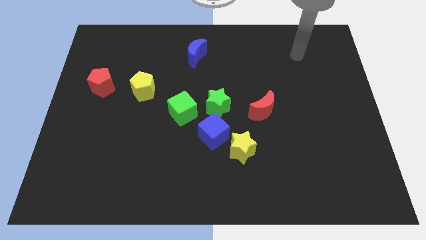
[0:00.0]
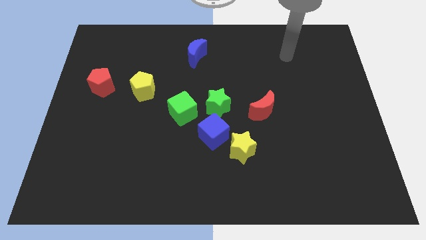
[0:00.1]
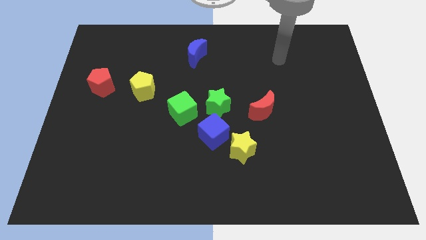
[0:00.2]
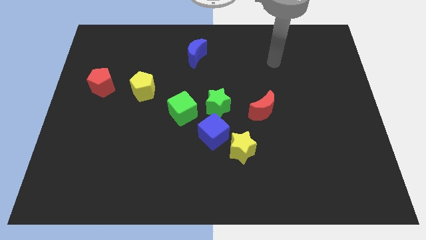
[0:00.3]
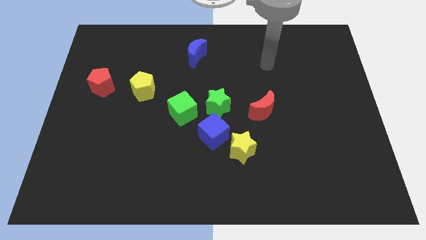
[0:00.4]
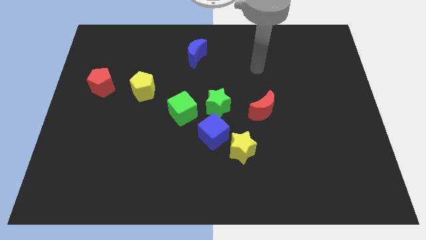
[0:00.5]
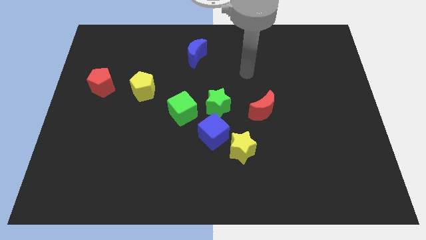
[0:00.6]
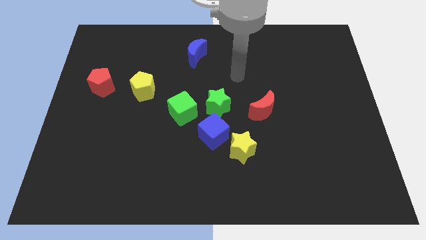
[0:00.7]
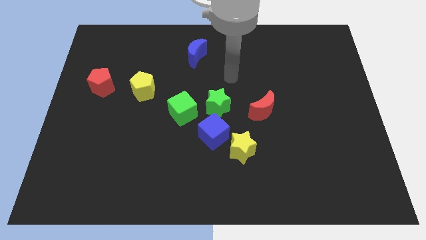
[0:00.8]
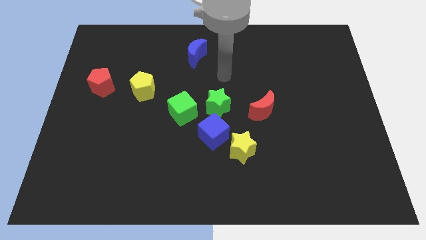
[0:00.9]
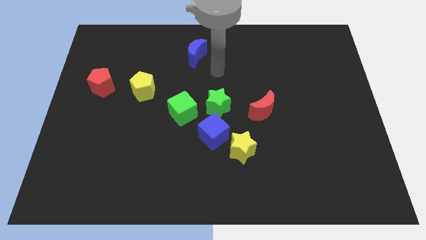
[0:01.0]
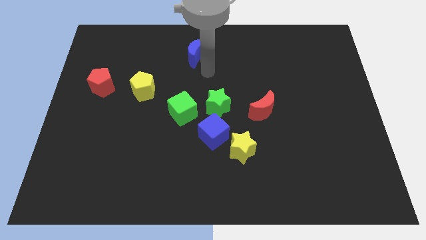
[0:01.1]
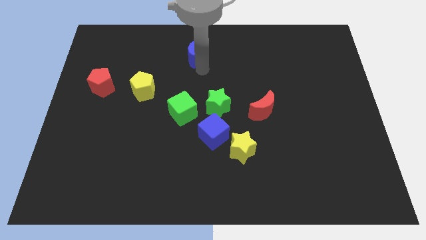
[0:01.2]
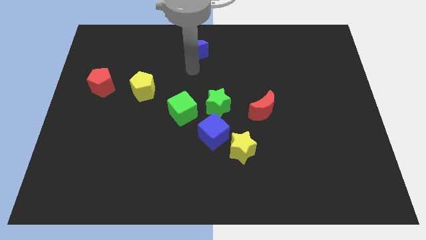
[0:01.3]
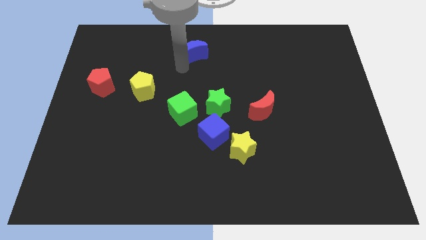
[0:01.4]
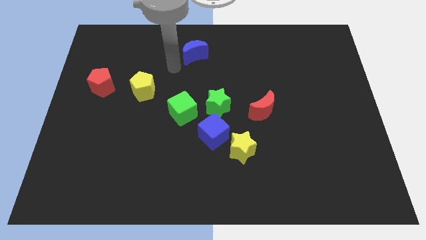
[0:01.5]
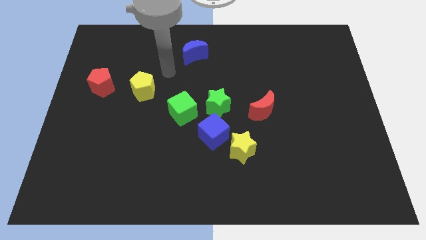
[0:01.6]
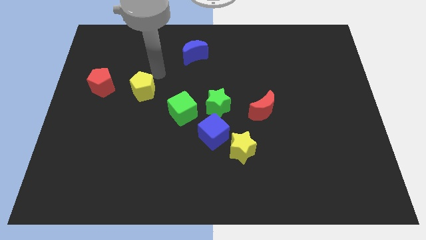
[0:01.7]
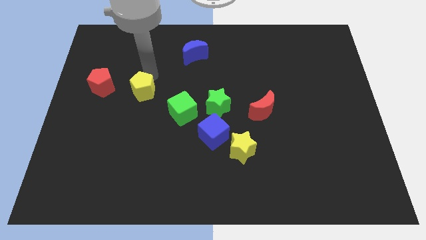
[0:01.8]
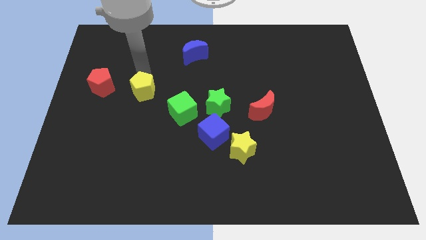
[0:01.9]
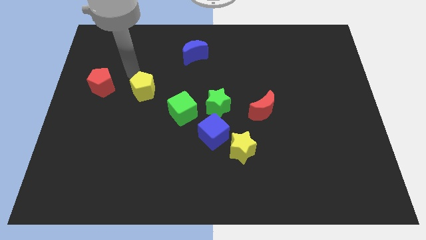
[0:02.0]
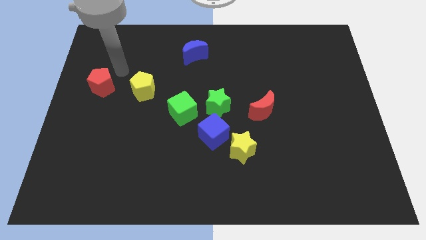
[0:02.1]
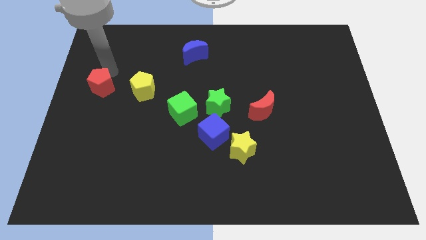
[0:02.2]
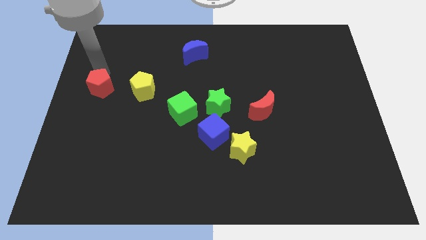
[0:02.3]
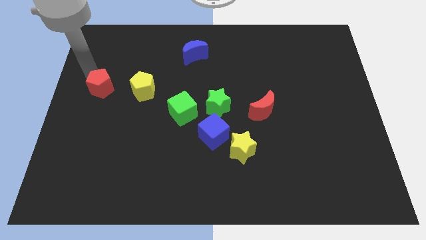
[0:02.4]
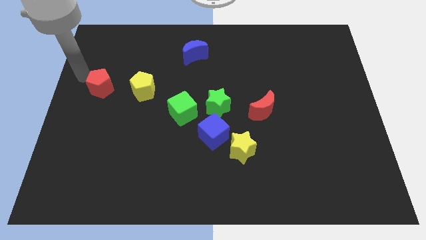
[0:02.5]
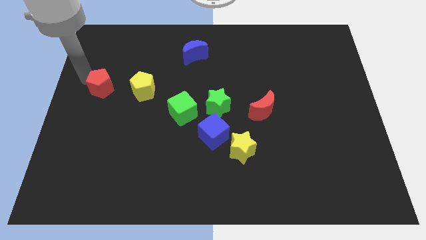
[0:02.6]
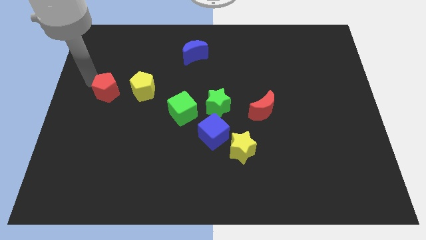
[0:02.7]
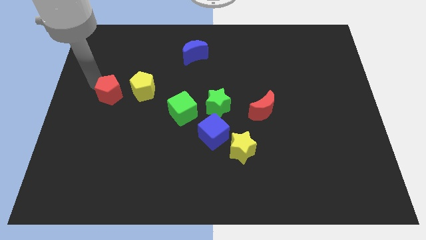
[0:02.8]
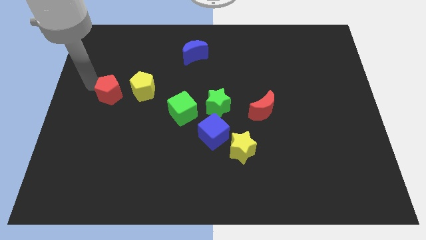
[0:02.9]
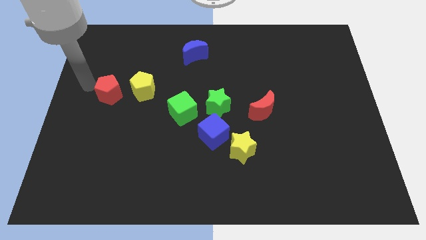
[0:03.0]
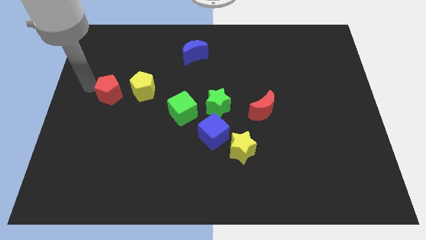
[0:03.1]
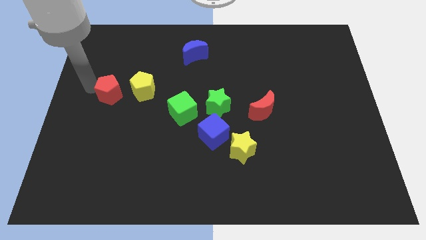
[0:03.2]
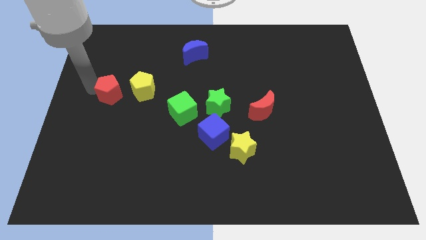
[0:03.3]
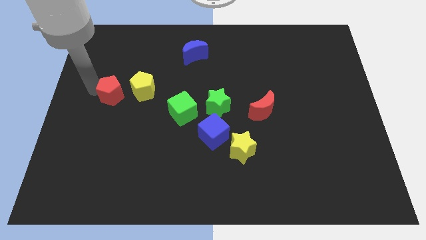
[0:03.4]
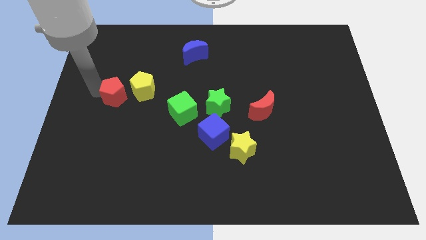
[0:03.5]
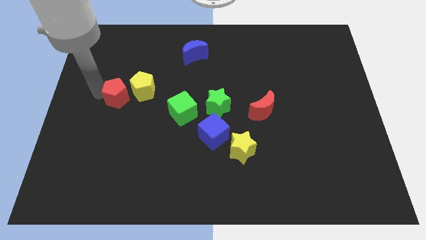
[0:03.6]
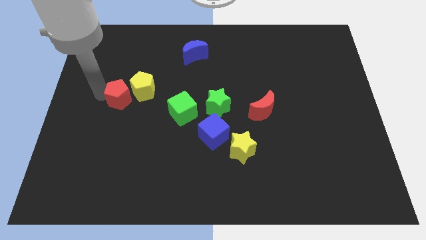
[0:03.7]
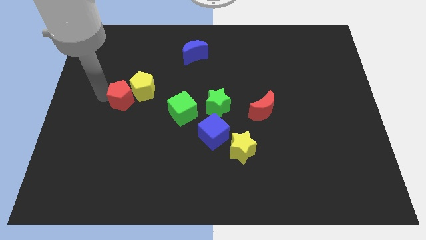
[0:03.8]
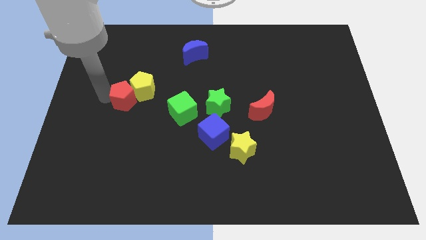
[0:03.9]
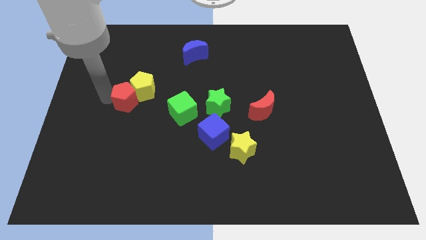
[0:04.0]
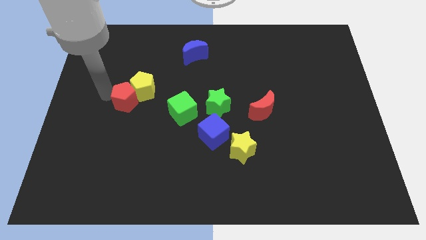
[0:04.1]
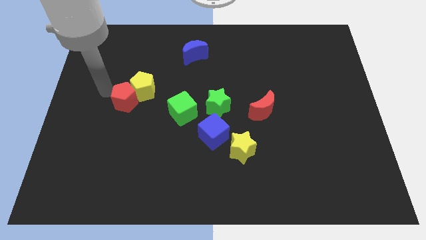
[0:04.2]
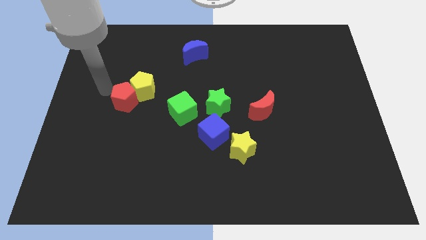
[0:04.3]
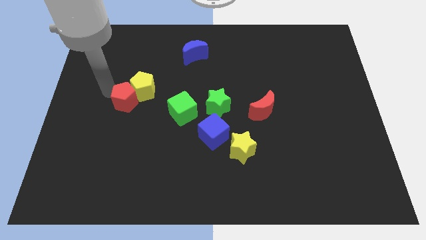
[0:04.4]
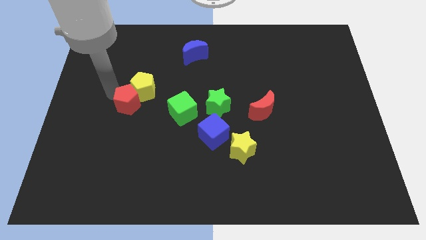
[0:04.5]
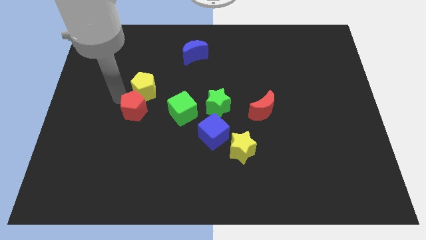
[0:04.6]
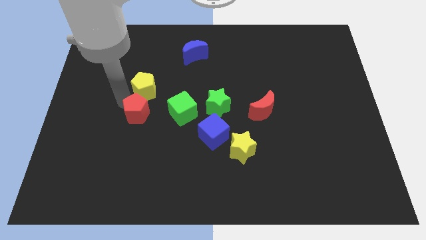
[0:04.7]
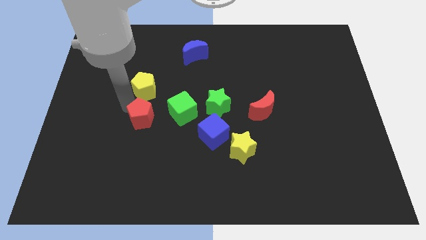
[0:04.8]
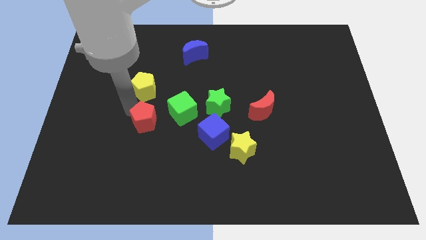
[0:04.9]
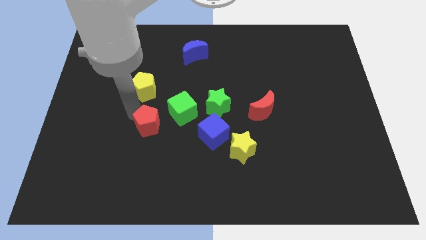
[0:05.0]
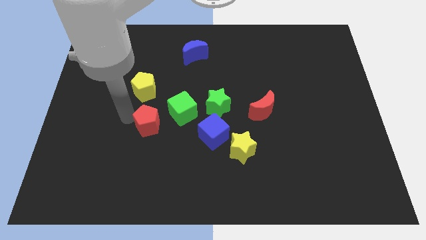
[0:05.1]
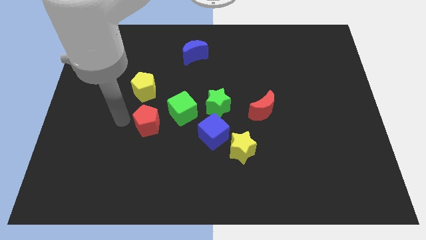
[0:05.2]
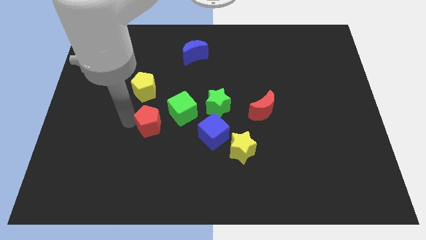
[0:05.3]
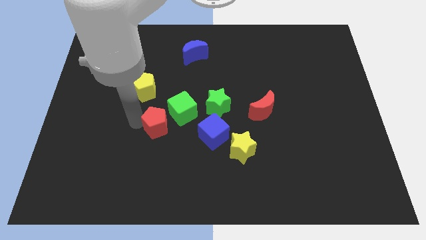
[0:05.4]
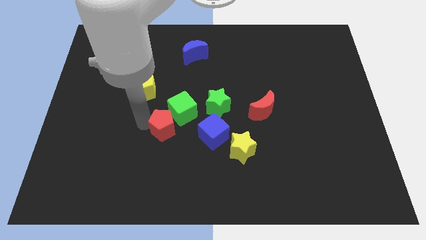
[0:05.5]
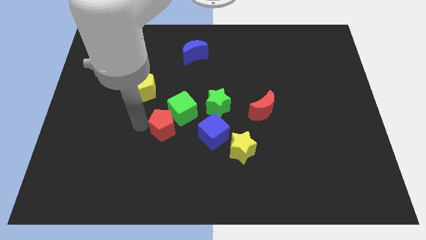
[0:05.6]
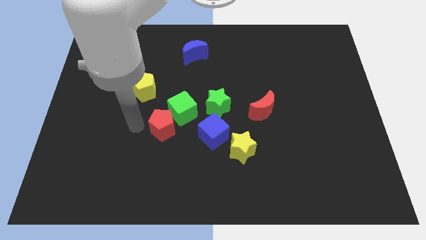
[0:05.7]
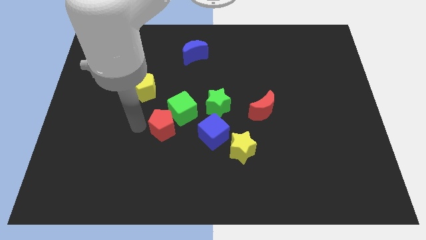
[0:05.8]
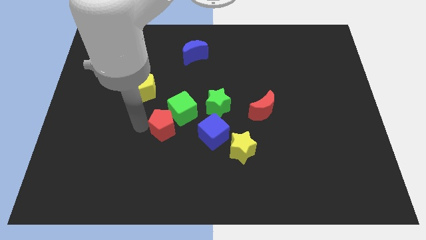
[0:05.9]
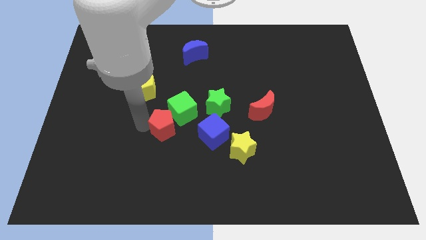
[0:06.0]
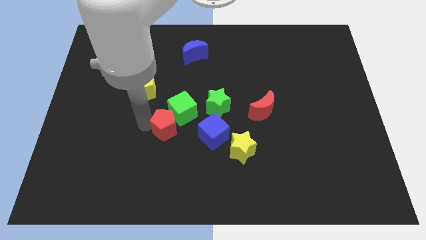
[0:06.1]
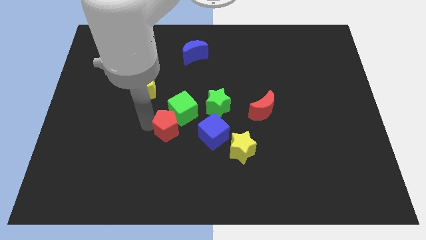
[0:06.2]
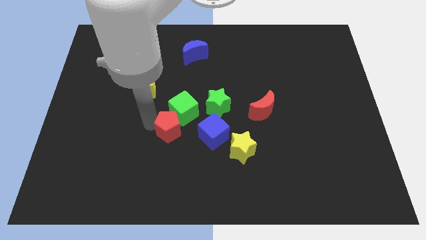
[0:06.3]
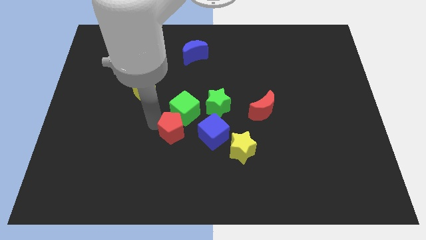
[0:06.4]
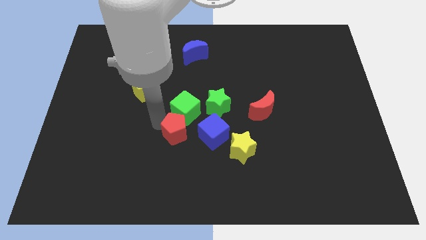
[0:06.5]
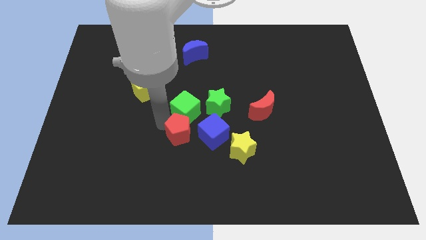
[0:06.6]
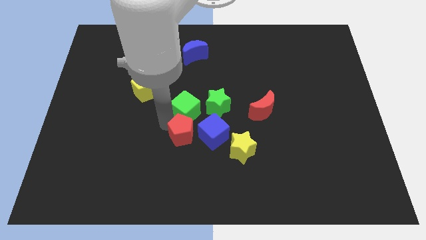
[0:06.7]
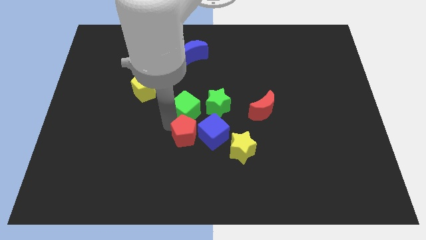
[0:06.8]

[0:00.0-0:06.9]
slide the red pentagon towards the blue cube
